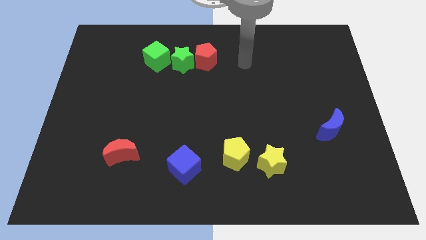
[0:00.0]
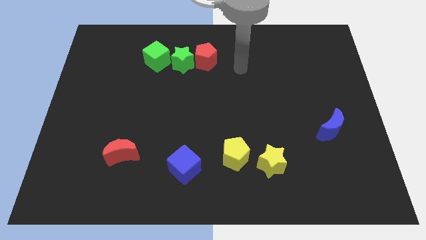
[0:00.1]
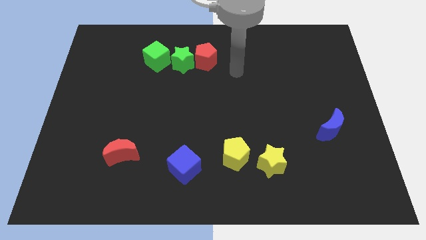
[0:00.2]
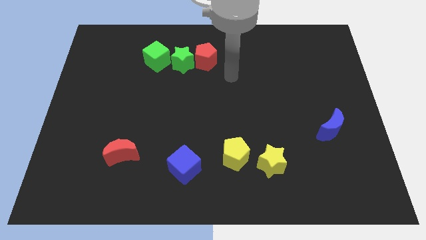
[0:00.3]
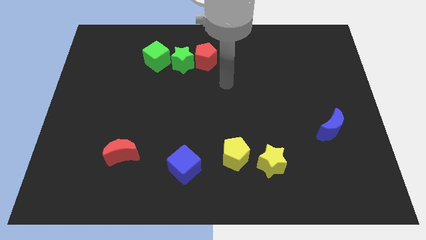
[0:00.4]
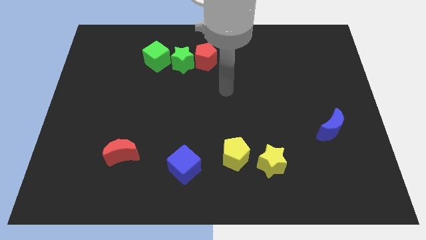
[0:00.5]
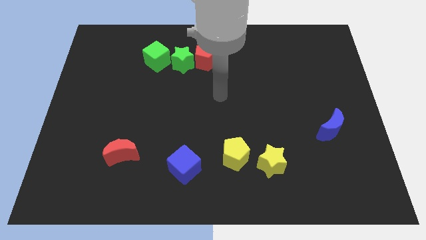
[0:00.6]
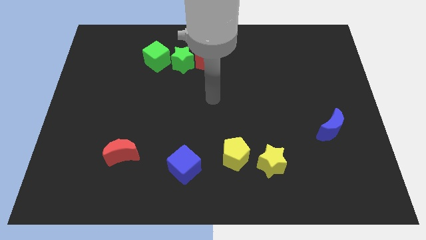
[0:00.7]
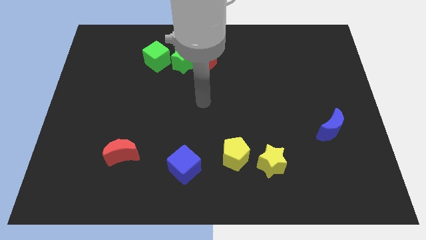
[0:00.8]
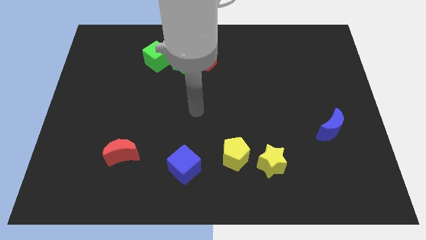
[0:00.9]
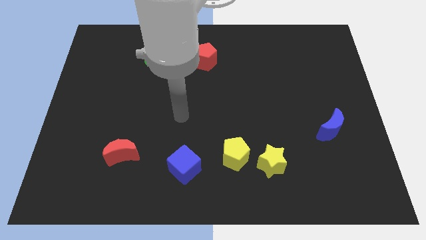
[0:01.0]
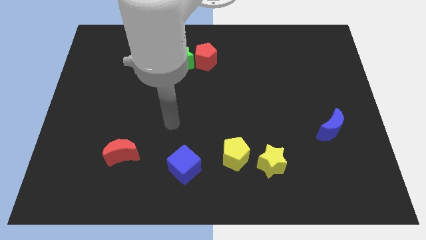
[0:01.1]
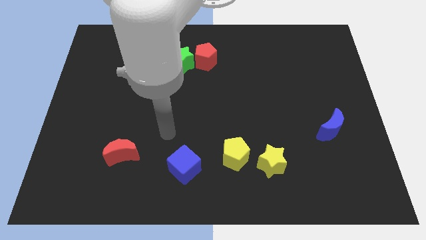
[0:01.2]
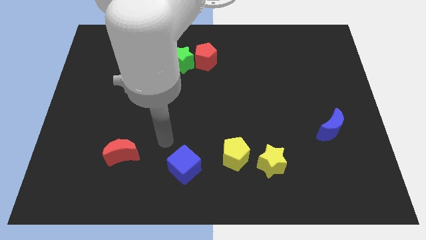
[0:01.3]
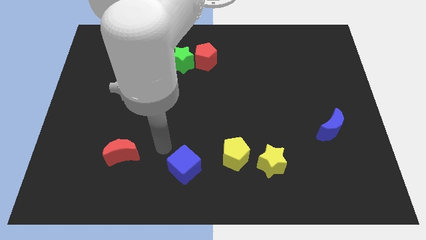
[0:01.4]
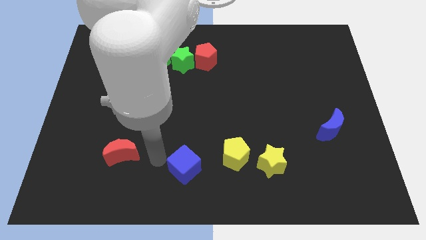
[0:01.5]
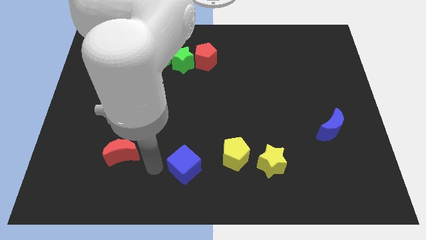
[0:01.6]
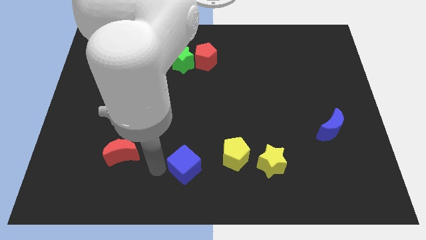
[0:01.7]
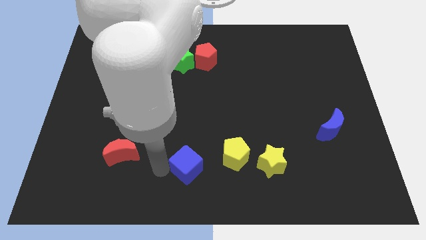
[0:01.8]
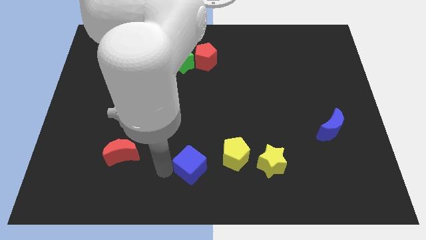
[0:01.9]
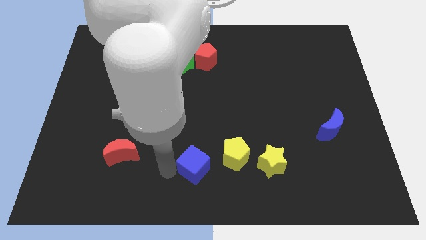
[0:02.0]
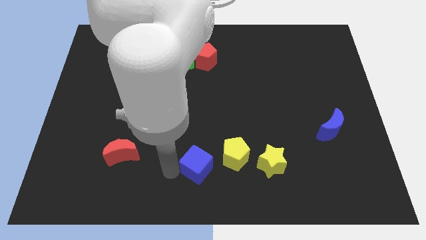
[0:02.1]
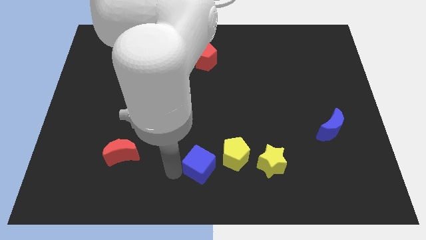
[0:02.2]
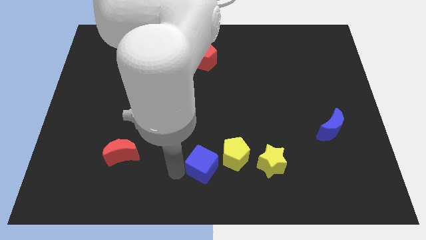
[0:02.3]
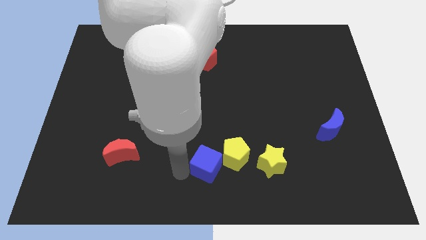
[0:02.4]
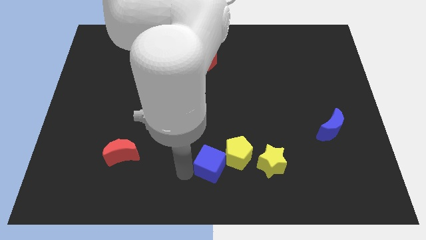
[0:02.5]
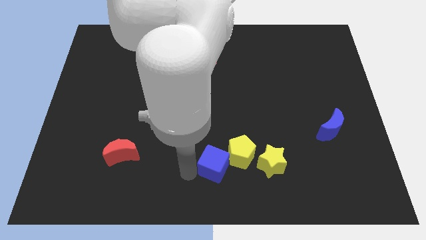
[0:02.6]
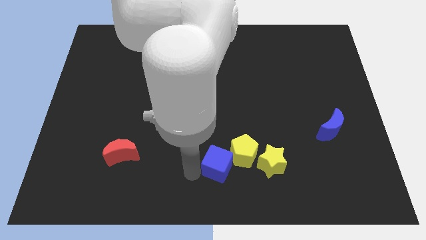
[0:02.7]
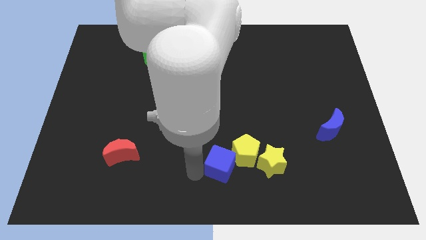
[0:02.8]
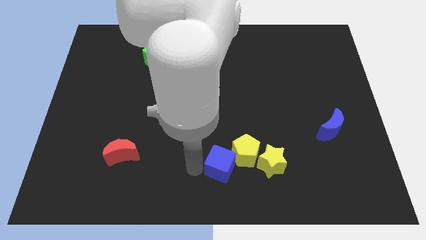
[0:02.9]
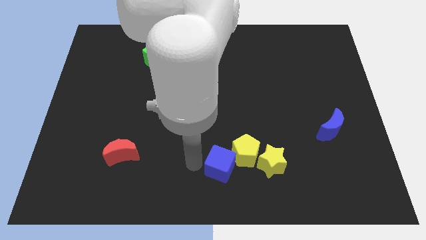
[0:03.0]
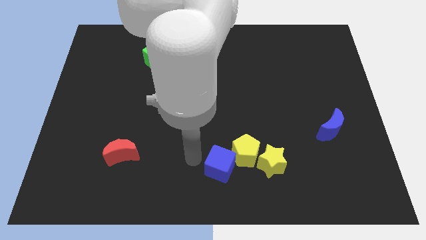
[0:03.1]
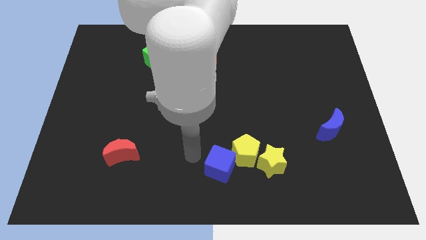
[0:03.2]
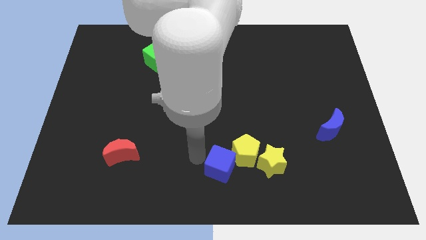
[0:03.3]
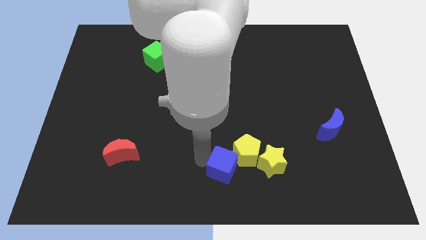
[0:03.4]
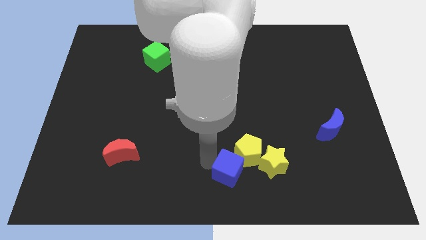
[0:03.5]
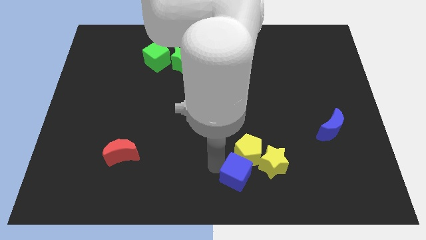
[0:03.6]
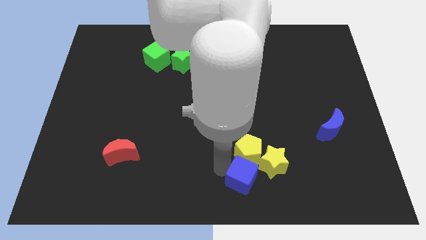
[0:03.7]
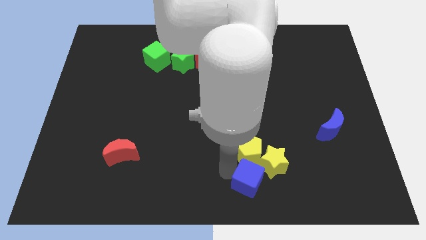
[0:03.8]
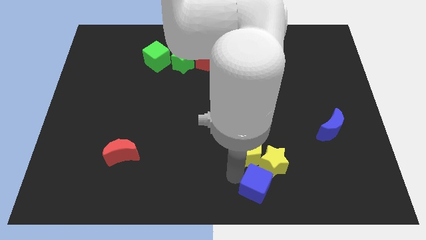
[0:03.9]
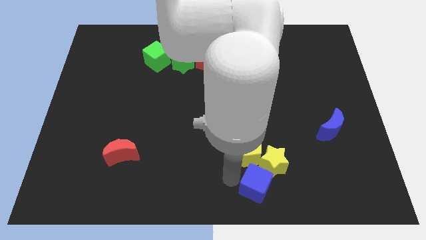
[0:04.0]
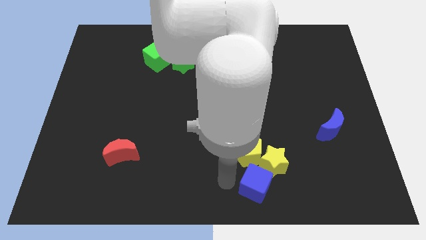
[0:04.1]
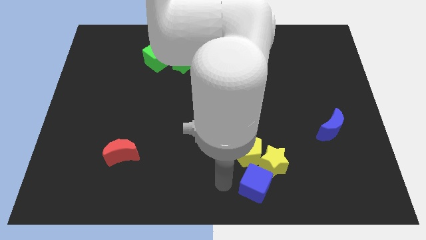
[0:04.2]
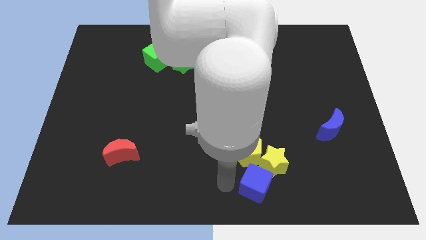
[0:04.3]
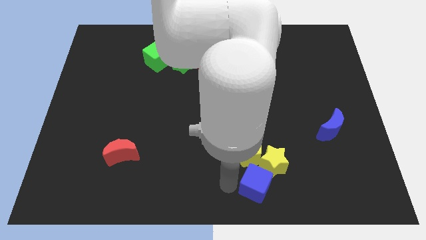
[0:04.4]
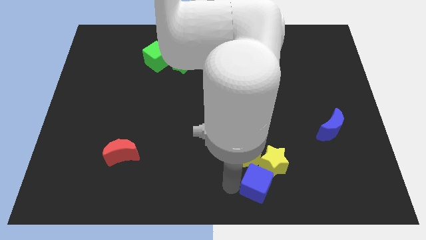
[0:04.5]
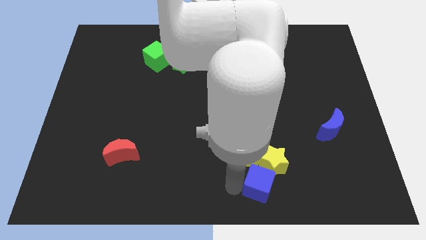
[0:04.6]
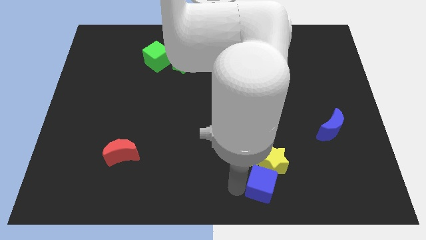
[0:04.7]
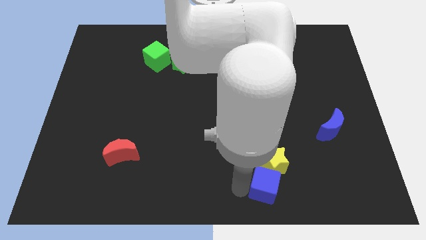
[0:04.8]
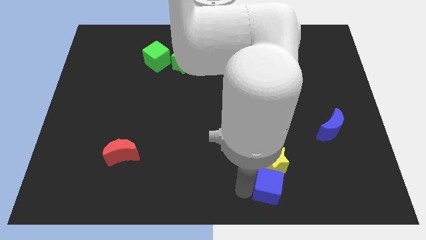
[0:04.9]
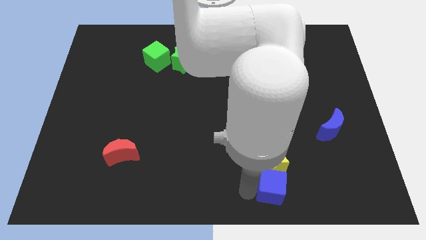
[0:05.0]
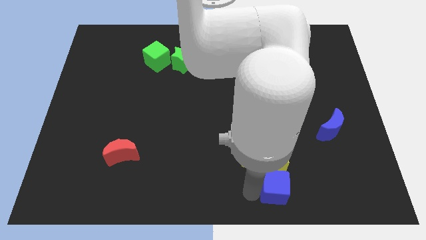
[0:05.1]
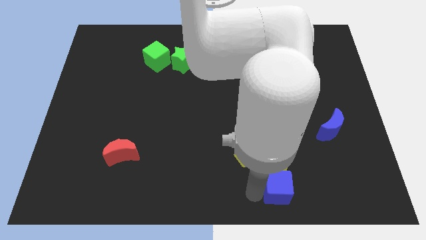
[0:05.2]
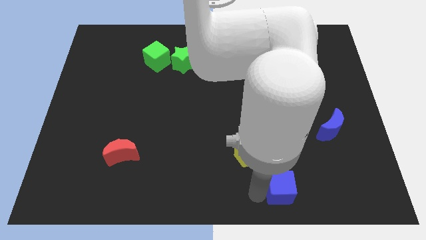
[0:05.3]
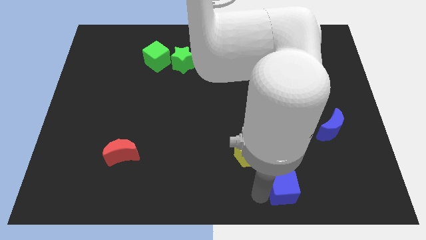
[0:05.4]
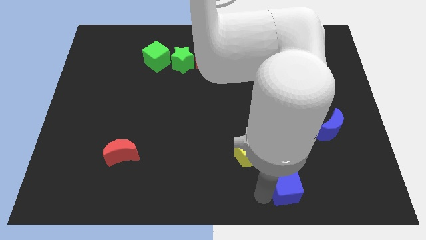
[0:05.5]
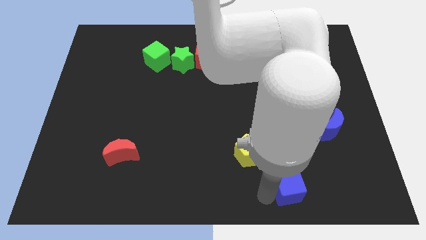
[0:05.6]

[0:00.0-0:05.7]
push the blue cube right

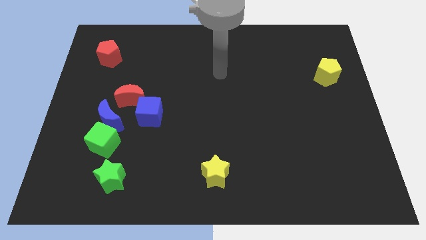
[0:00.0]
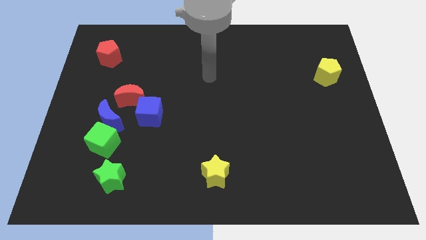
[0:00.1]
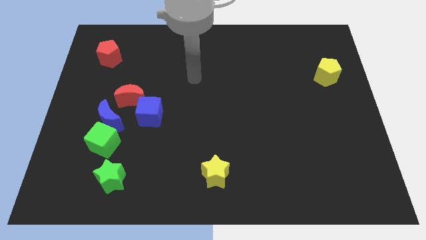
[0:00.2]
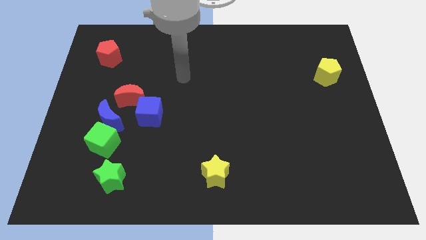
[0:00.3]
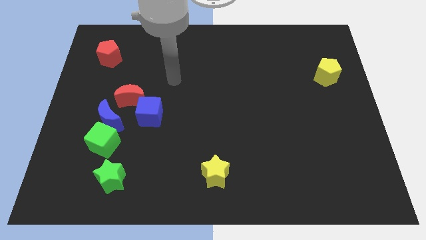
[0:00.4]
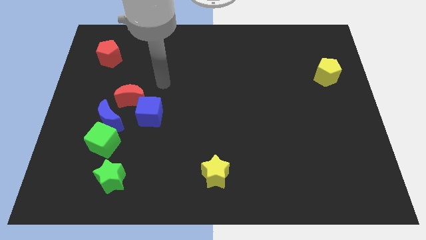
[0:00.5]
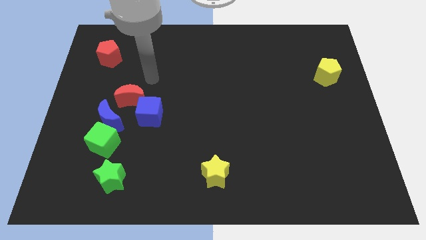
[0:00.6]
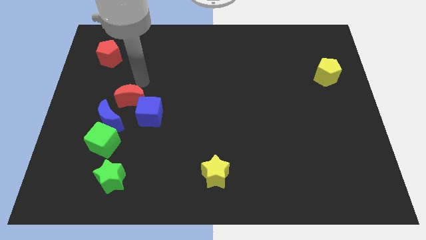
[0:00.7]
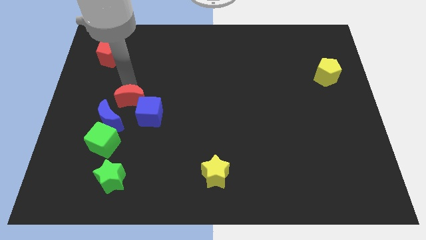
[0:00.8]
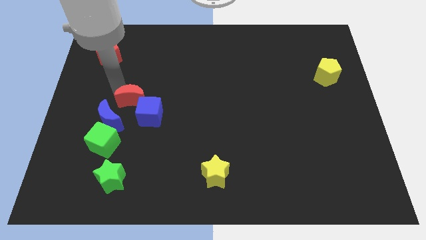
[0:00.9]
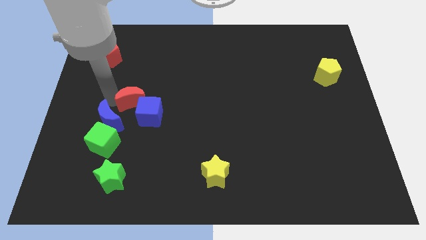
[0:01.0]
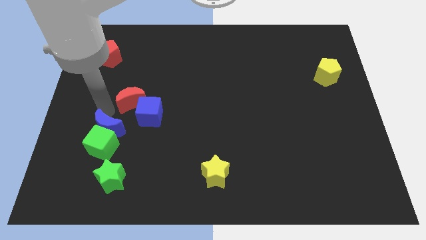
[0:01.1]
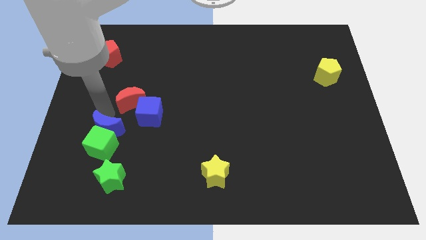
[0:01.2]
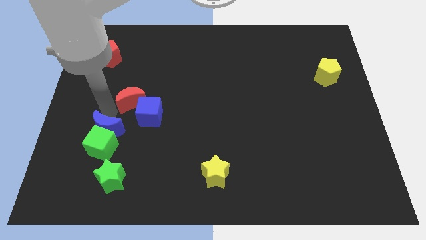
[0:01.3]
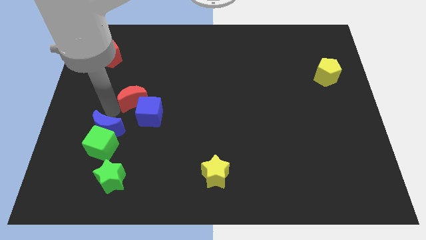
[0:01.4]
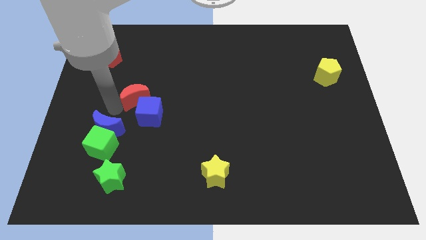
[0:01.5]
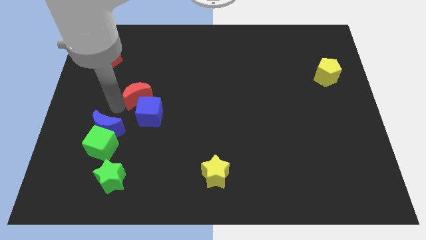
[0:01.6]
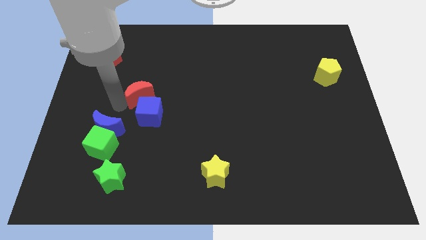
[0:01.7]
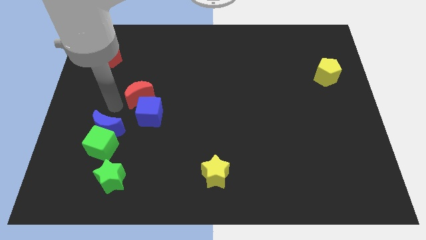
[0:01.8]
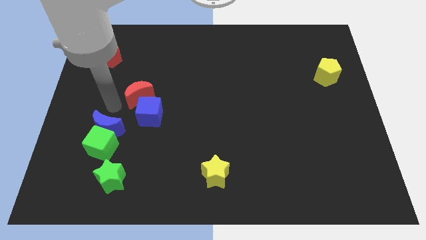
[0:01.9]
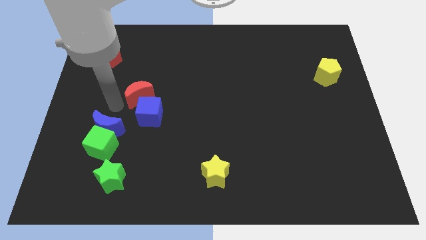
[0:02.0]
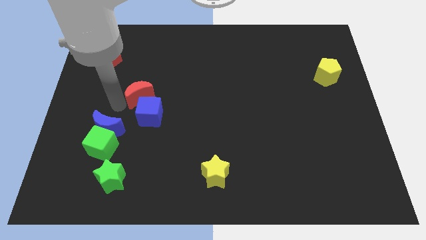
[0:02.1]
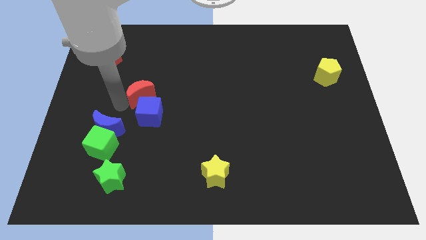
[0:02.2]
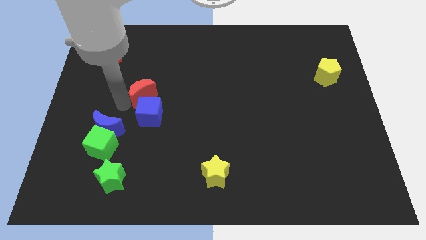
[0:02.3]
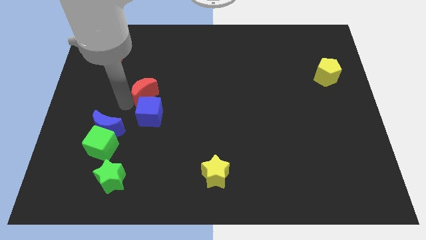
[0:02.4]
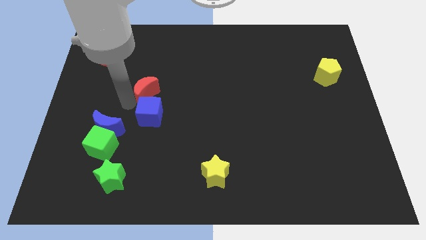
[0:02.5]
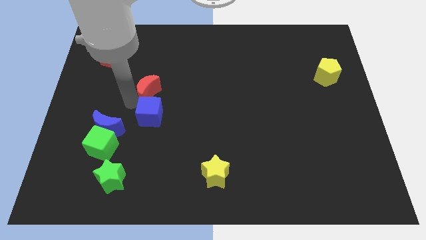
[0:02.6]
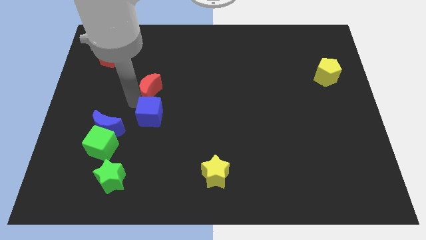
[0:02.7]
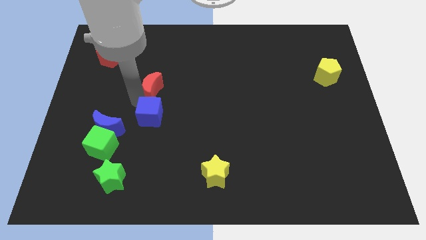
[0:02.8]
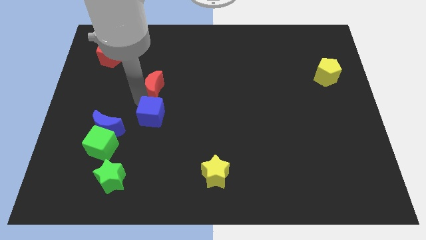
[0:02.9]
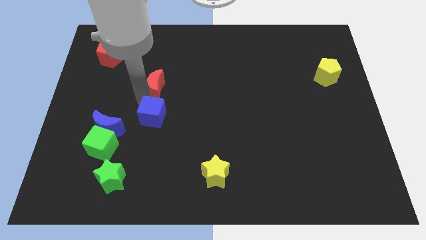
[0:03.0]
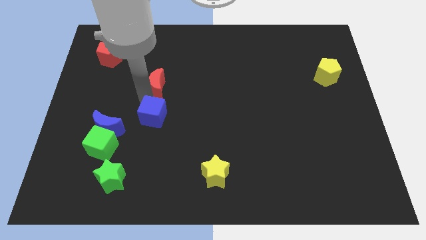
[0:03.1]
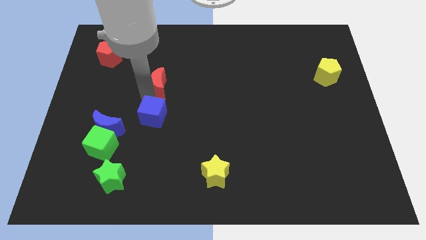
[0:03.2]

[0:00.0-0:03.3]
push the red moon up and right diagonally a bit
